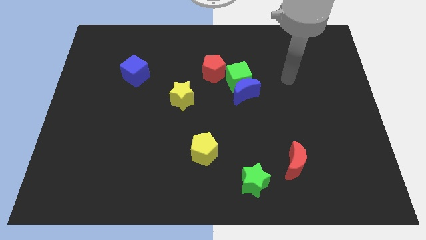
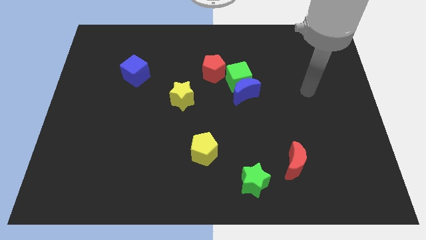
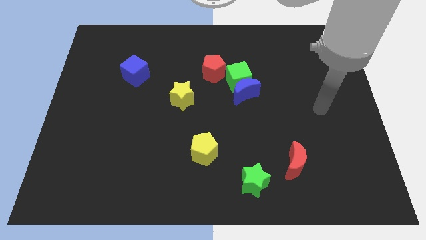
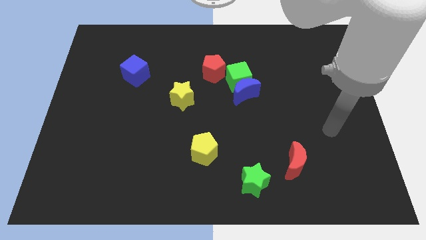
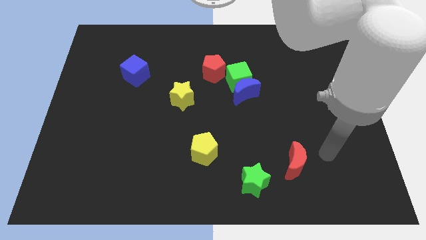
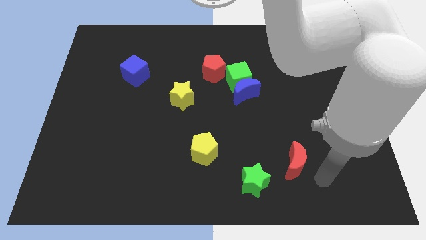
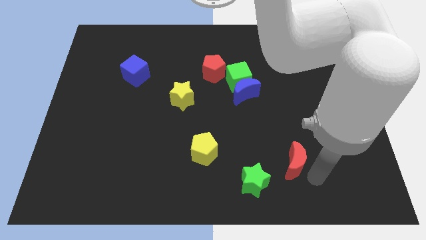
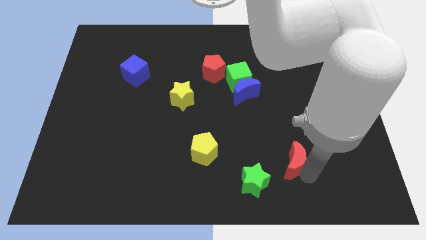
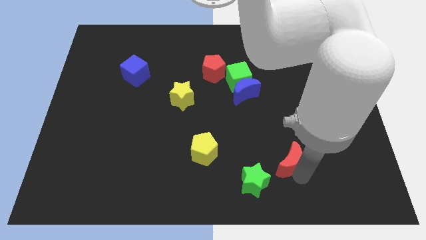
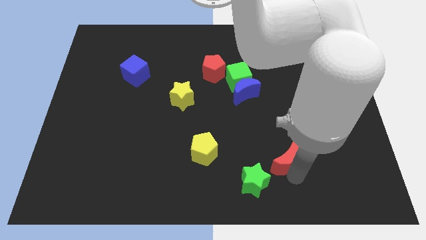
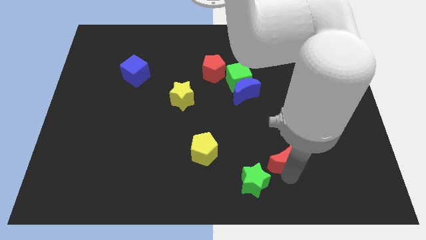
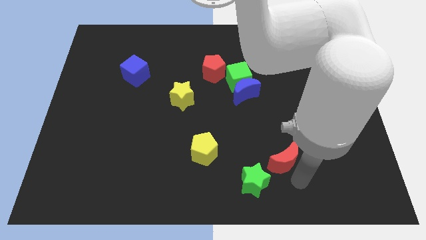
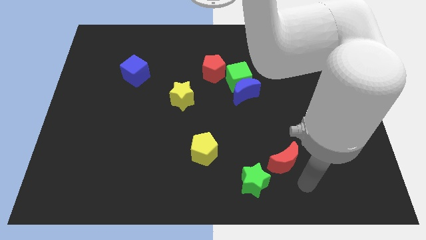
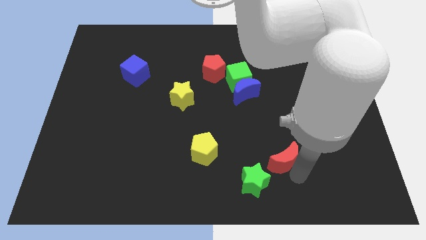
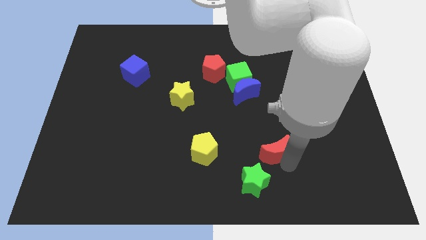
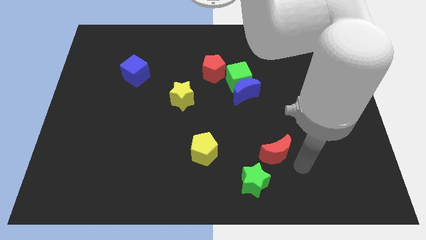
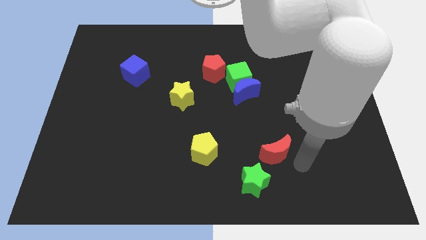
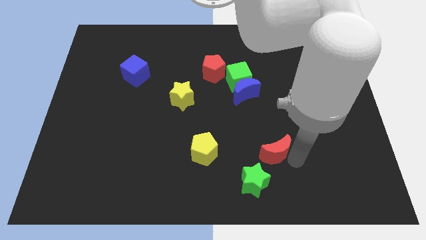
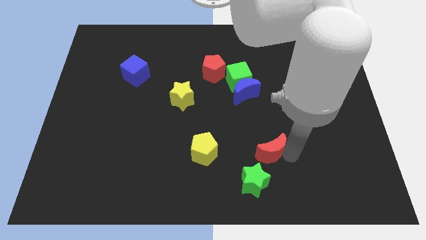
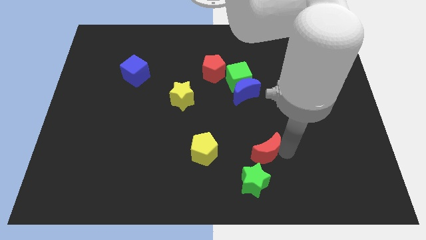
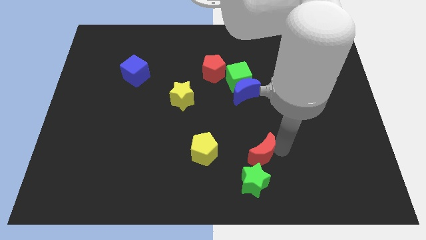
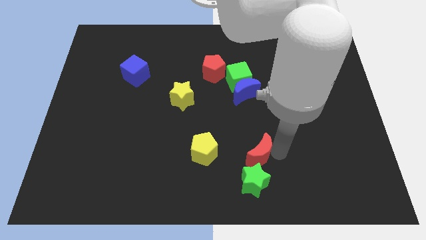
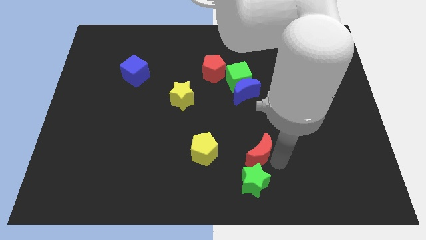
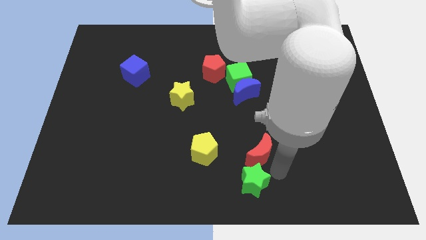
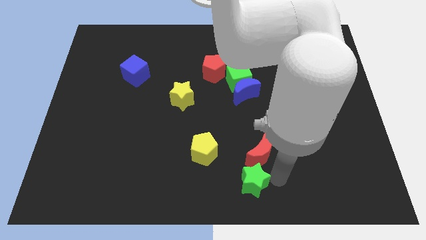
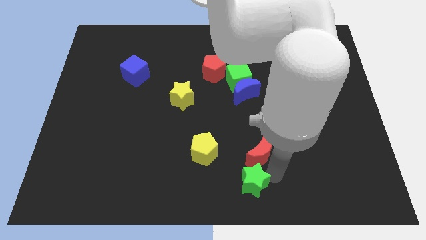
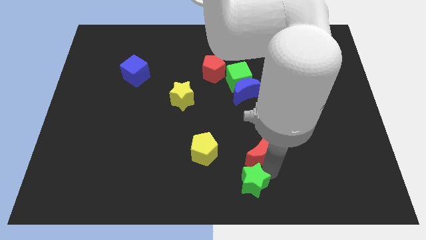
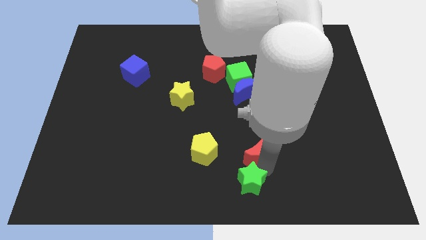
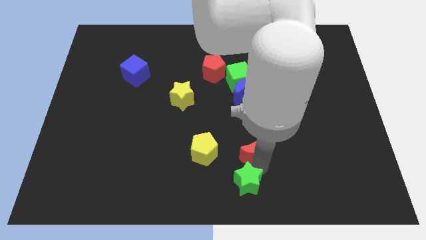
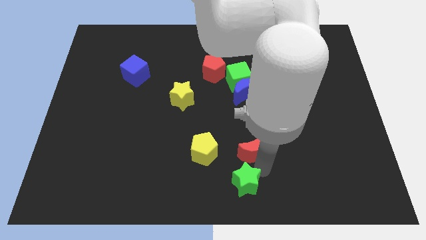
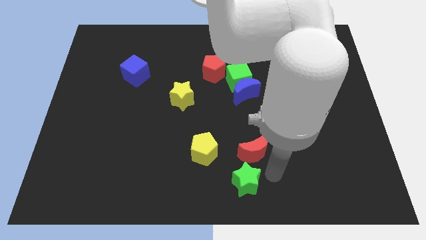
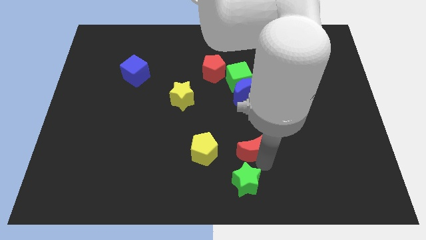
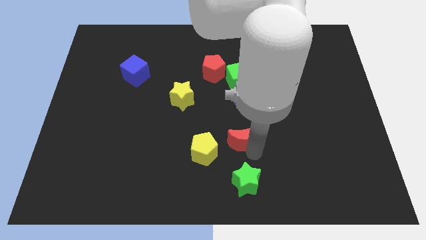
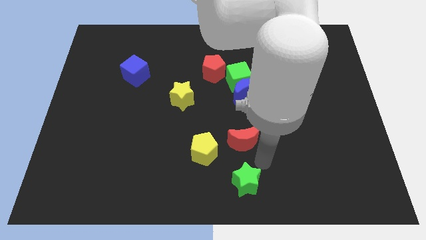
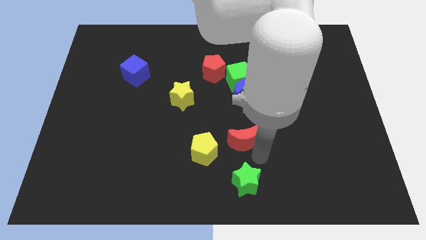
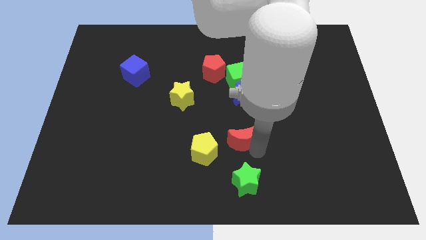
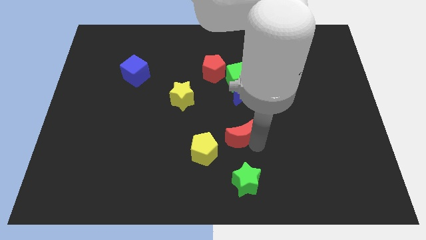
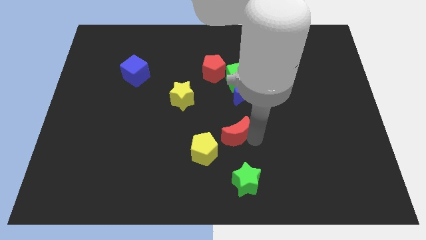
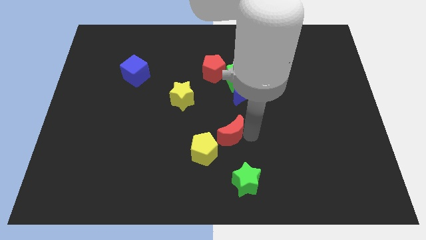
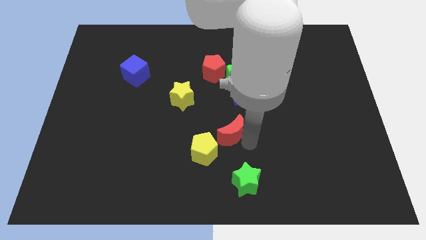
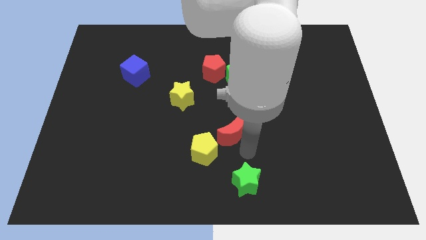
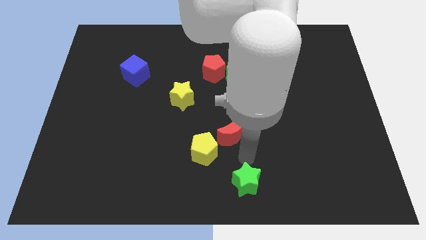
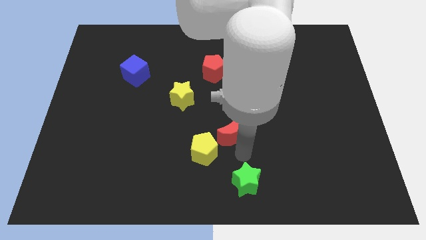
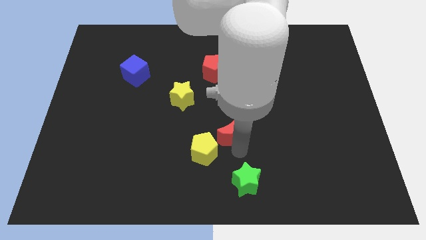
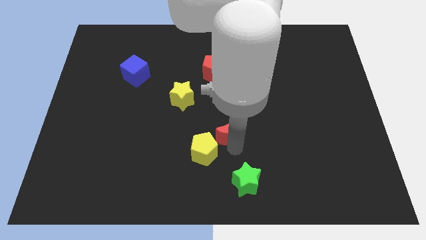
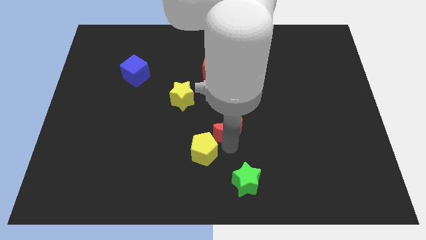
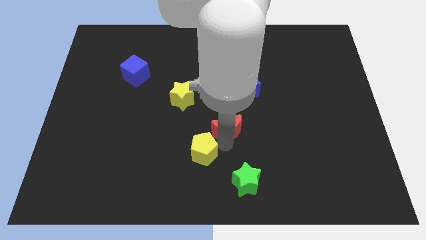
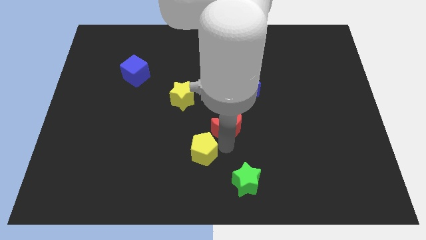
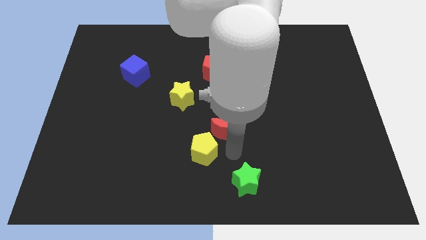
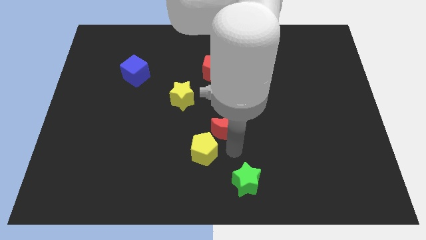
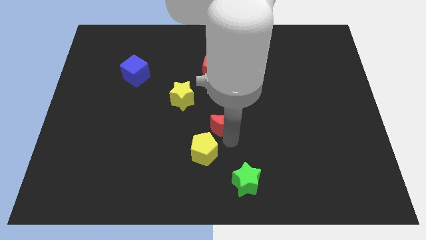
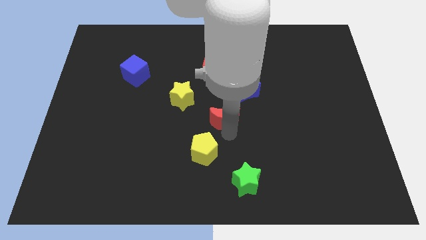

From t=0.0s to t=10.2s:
push the red moon to the bottom of the red pentagon

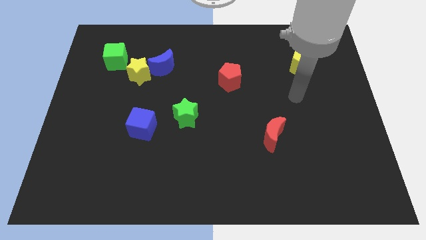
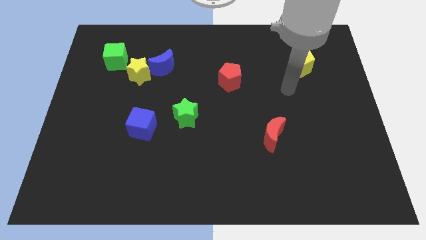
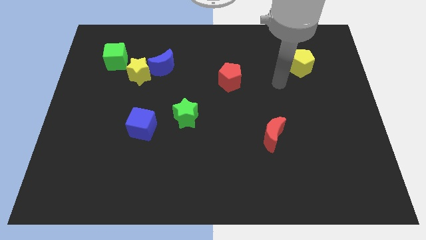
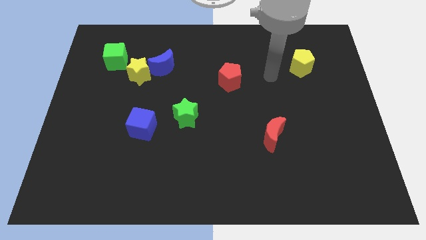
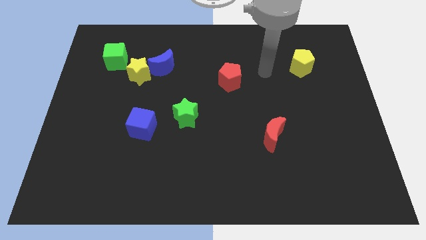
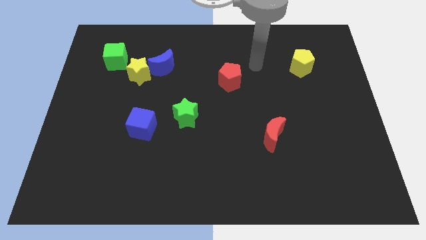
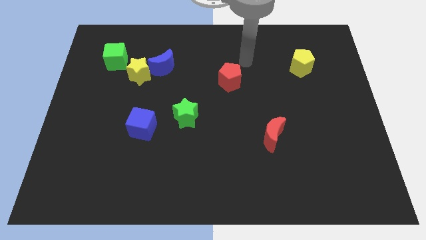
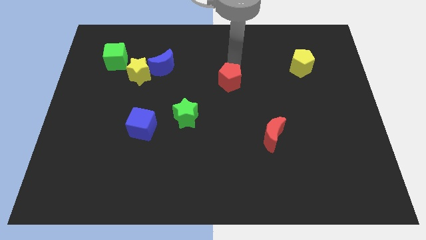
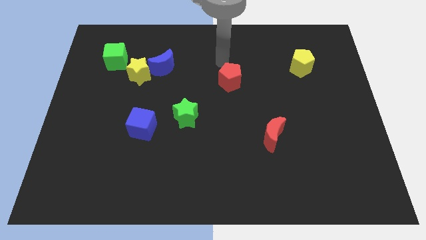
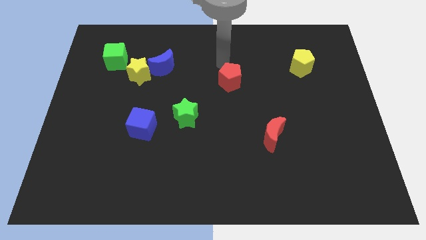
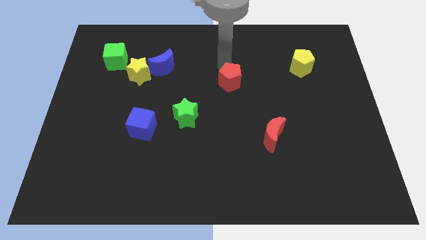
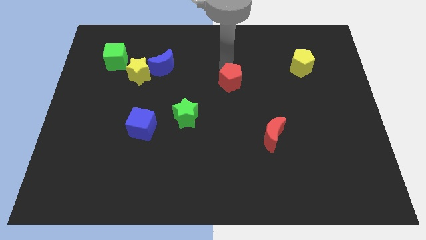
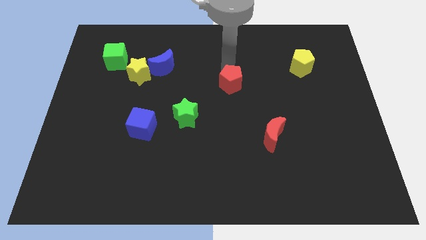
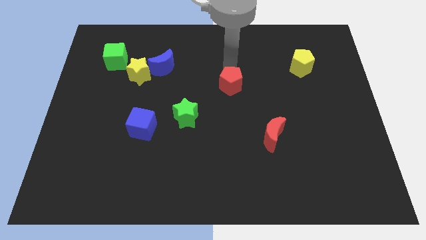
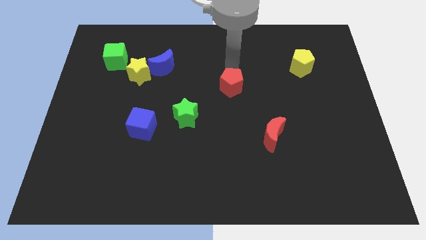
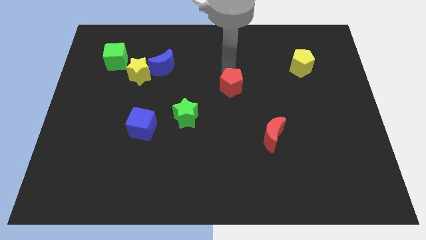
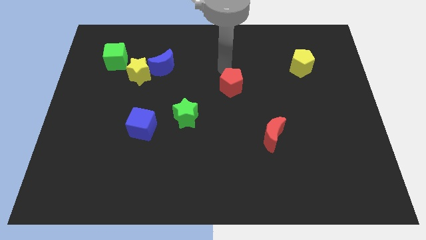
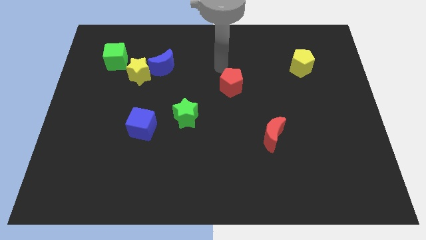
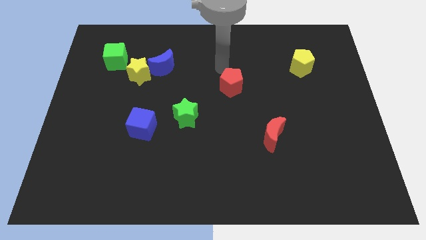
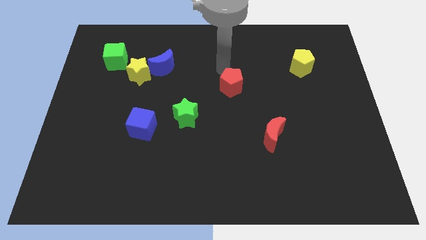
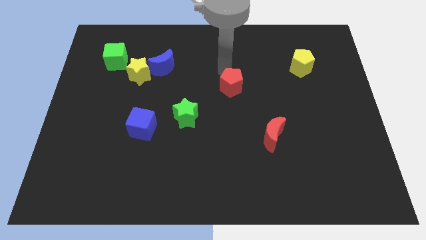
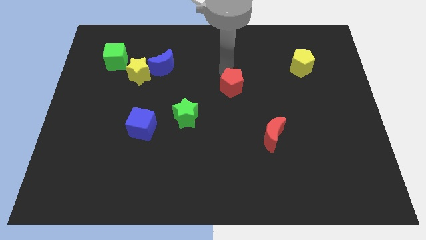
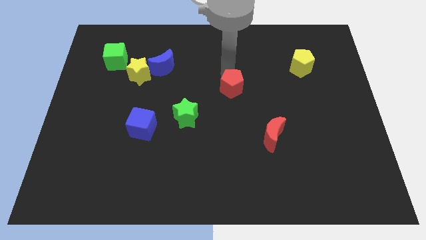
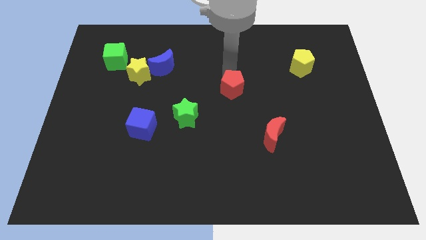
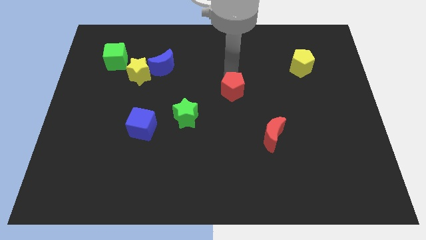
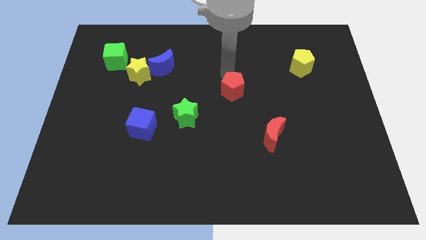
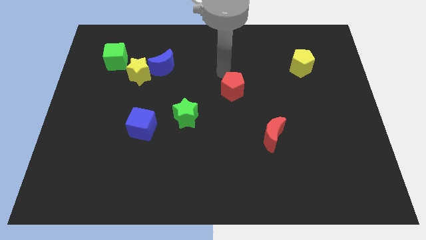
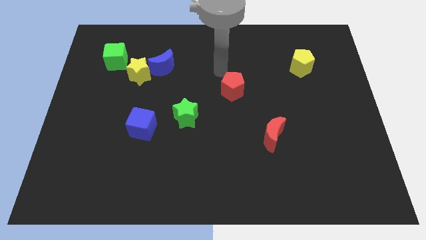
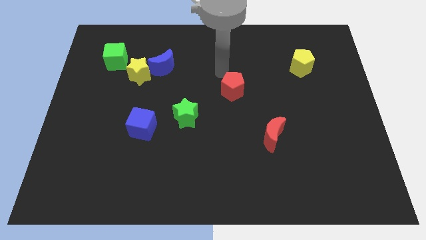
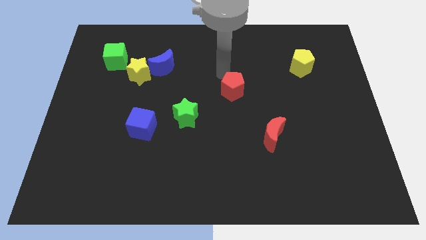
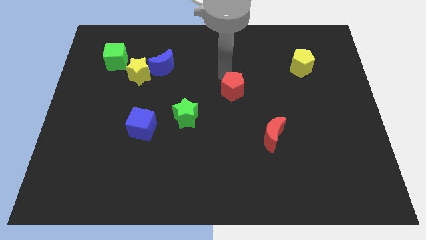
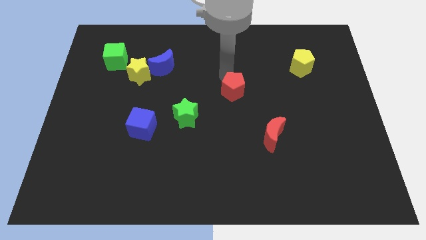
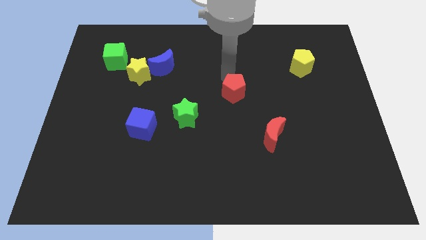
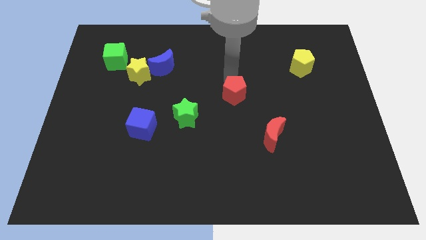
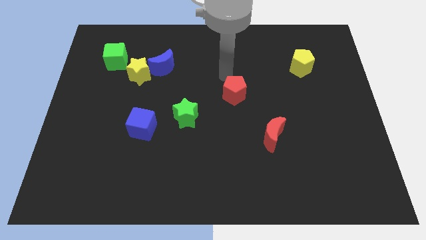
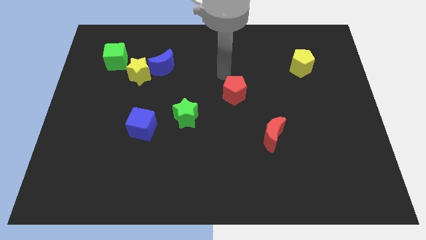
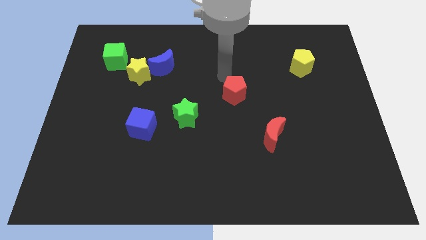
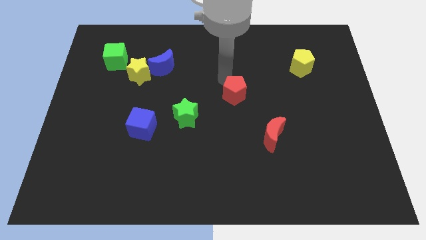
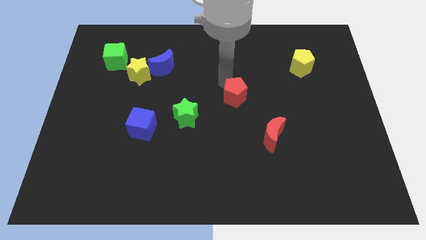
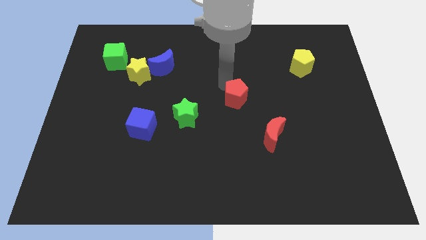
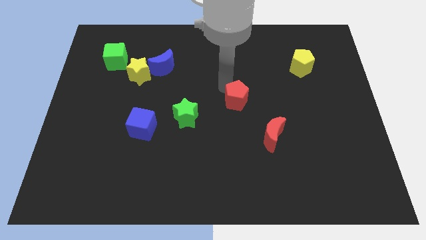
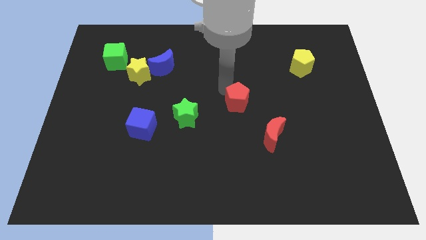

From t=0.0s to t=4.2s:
slide the red pentagon to the top left of the red moon
